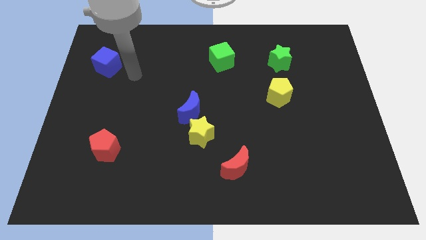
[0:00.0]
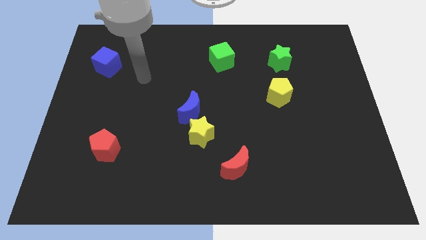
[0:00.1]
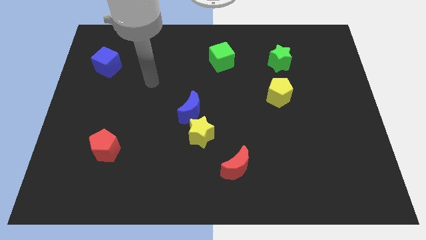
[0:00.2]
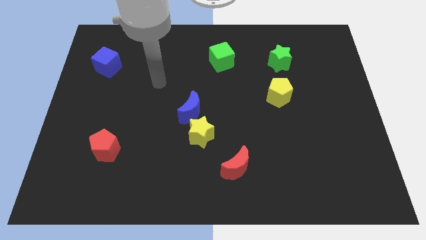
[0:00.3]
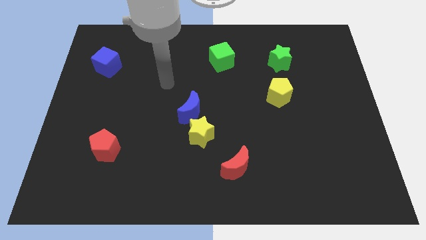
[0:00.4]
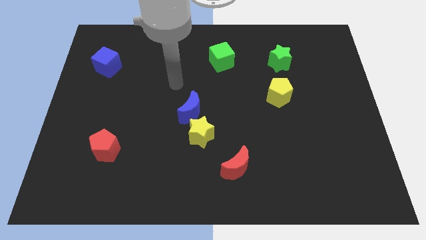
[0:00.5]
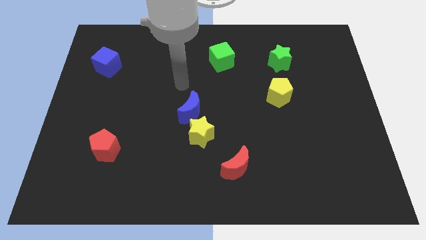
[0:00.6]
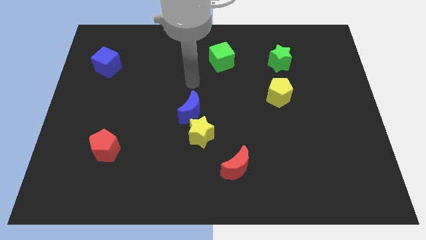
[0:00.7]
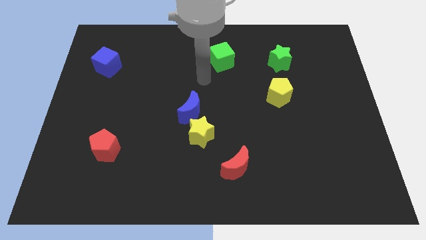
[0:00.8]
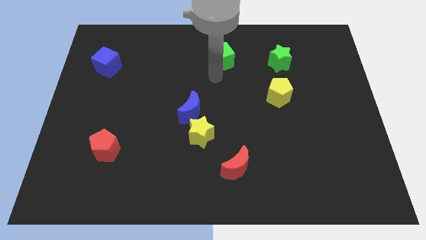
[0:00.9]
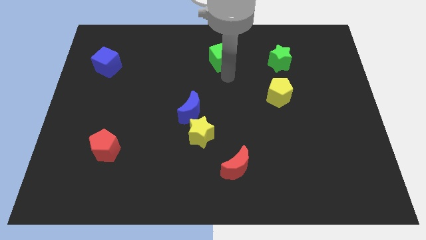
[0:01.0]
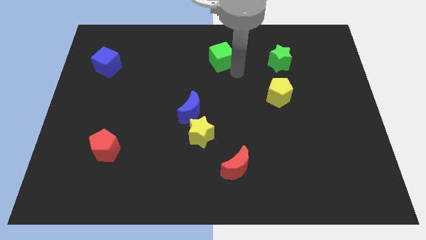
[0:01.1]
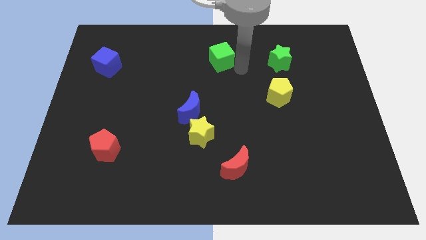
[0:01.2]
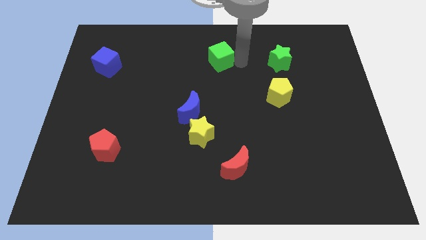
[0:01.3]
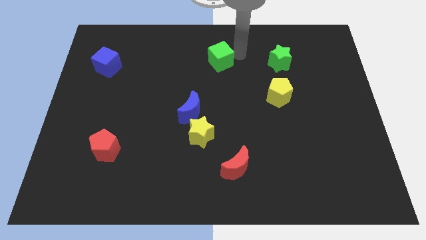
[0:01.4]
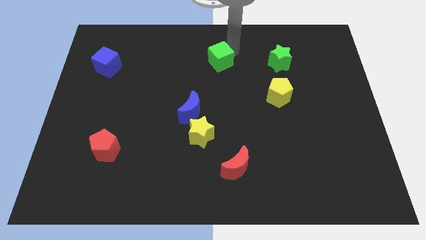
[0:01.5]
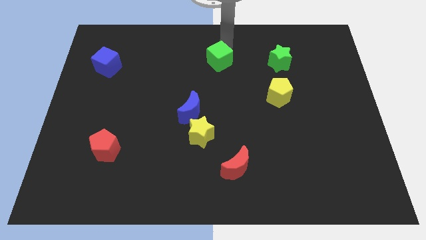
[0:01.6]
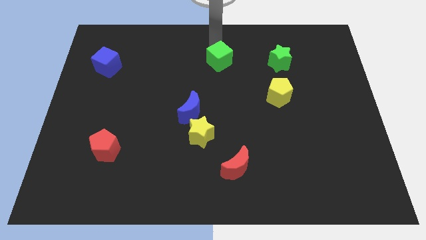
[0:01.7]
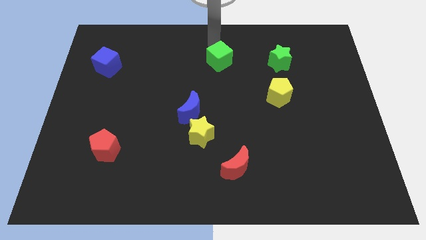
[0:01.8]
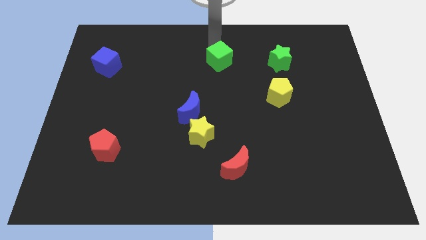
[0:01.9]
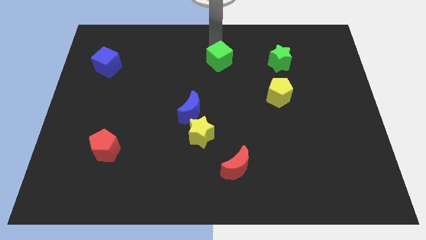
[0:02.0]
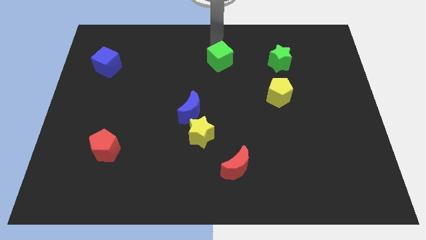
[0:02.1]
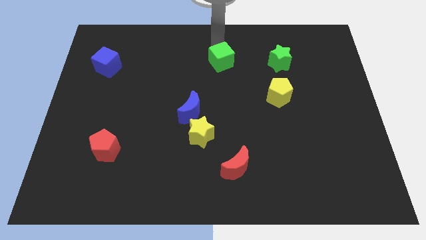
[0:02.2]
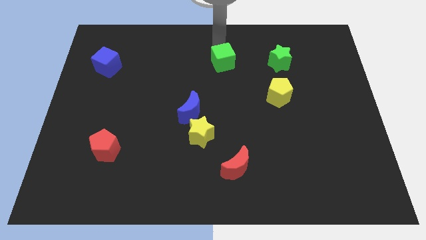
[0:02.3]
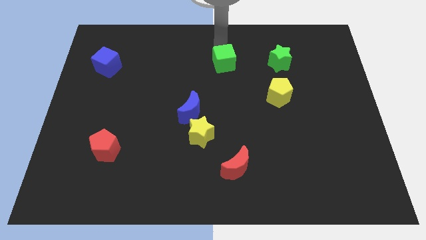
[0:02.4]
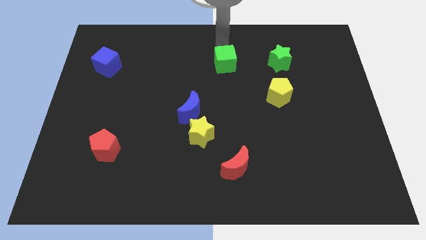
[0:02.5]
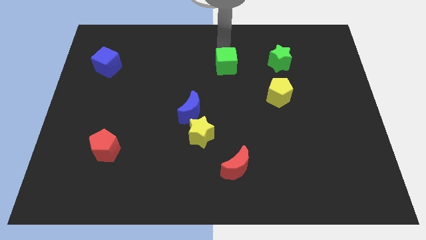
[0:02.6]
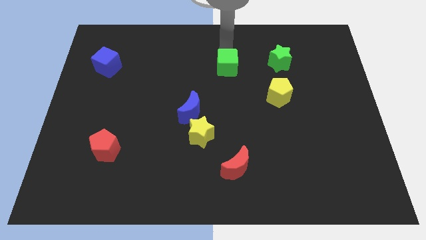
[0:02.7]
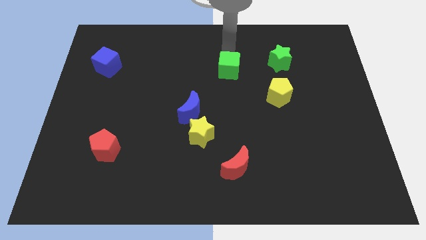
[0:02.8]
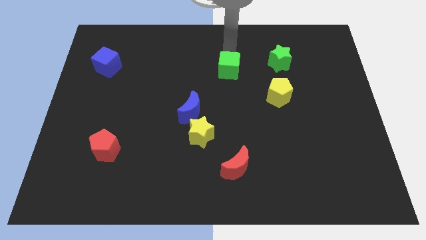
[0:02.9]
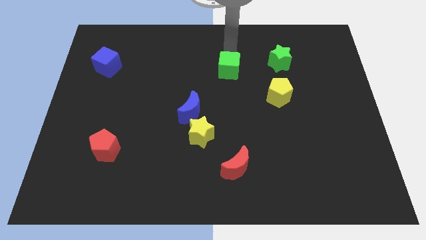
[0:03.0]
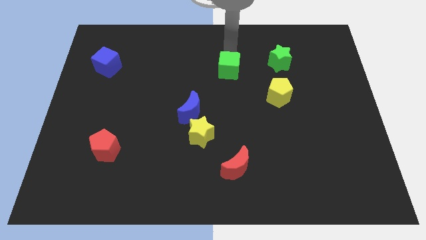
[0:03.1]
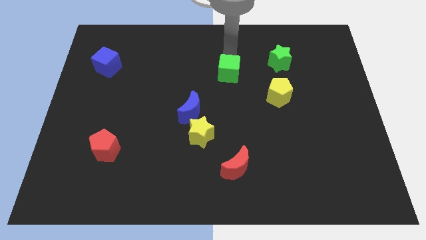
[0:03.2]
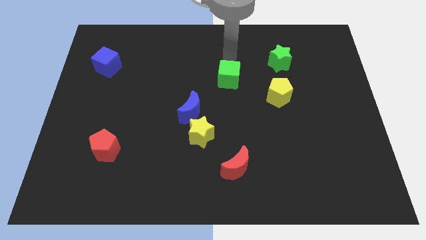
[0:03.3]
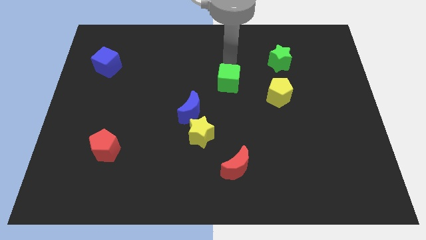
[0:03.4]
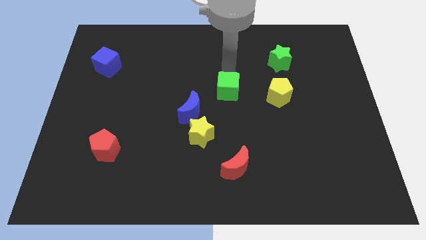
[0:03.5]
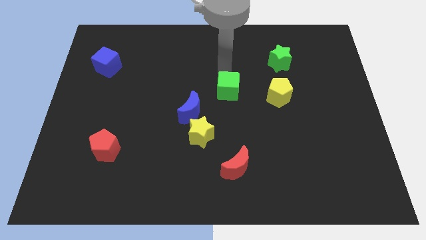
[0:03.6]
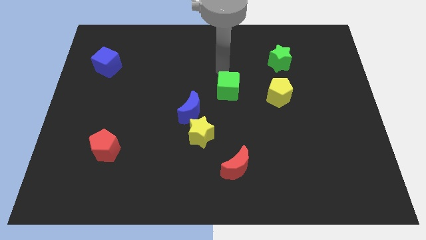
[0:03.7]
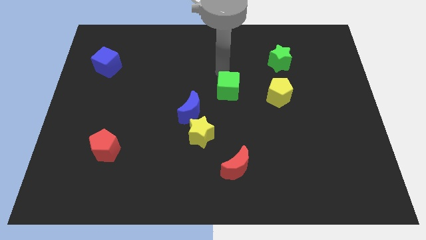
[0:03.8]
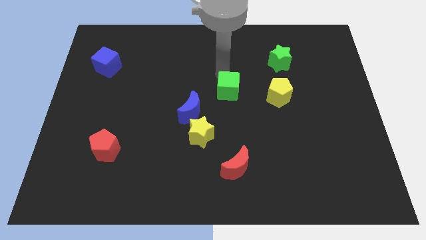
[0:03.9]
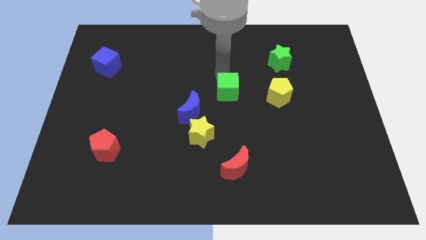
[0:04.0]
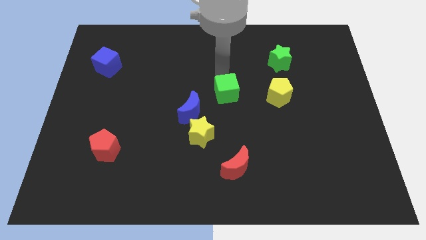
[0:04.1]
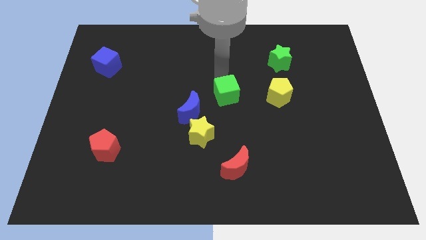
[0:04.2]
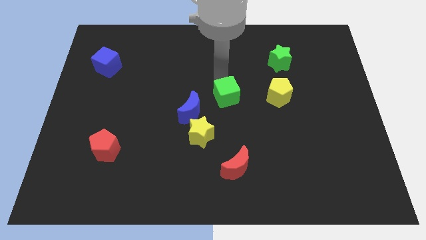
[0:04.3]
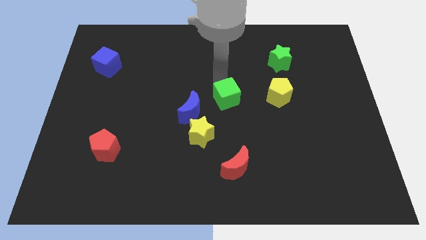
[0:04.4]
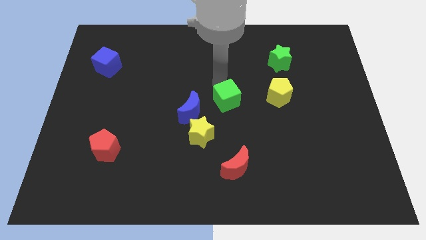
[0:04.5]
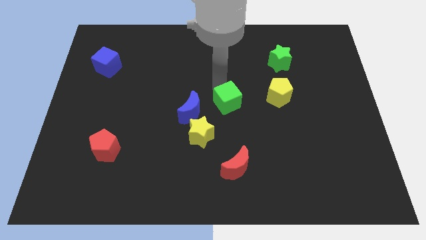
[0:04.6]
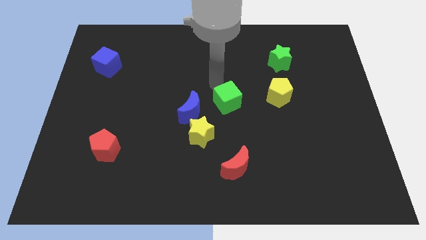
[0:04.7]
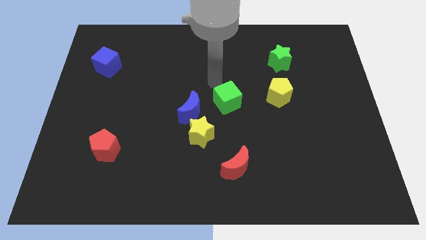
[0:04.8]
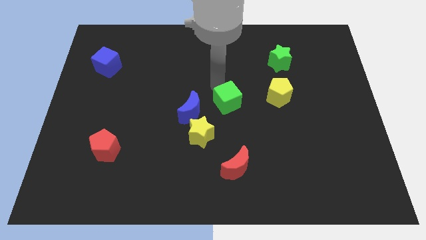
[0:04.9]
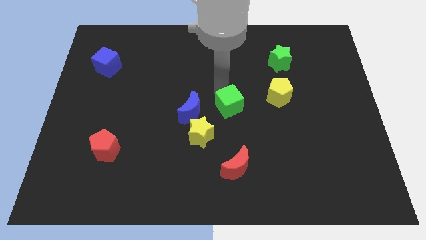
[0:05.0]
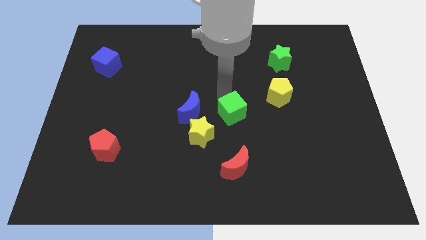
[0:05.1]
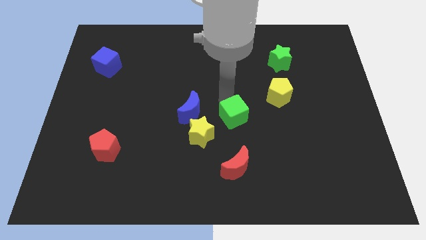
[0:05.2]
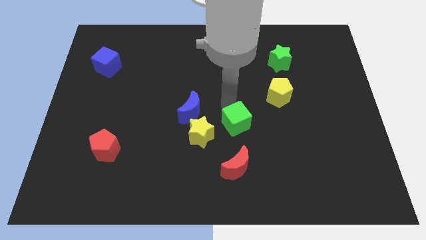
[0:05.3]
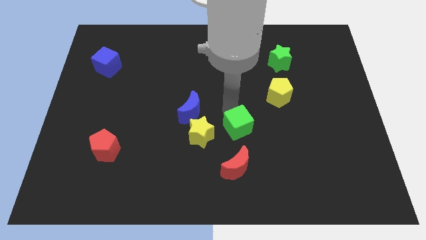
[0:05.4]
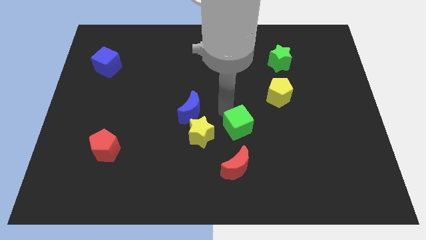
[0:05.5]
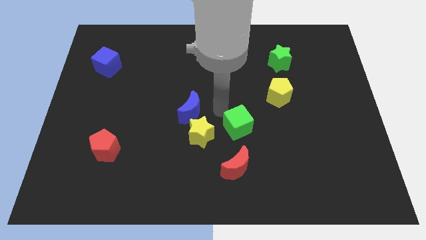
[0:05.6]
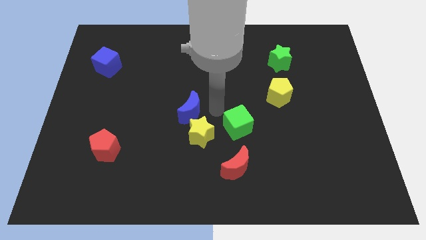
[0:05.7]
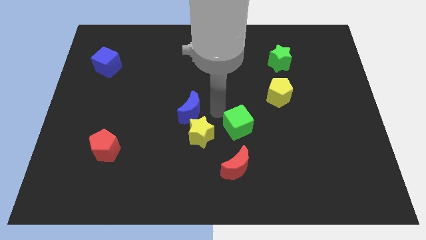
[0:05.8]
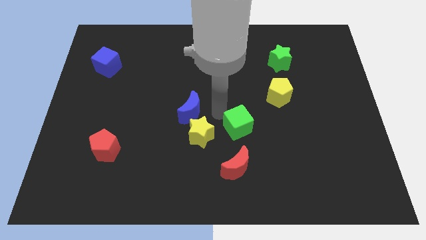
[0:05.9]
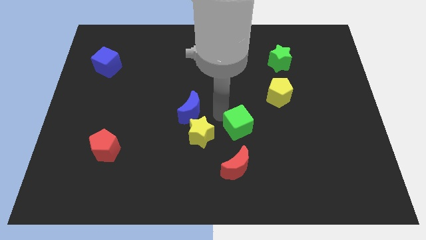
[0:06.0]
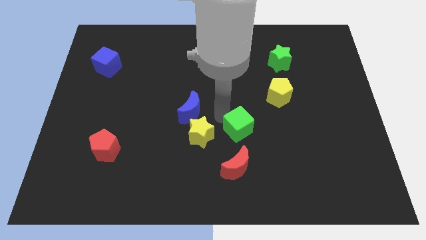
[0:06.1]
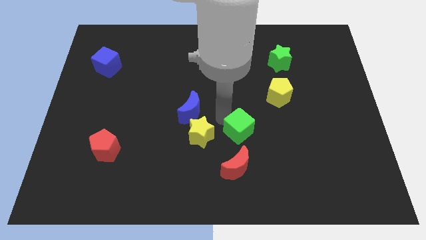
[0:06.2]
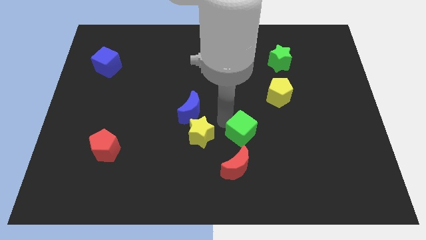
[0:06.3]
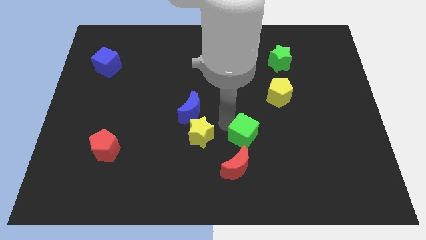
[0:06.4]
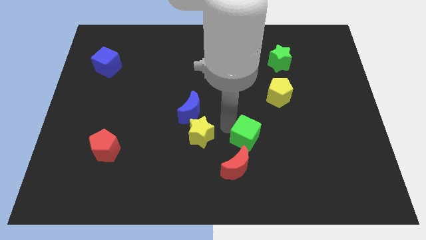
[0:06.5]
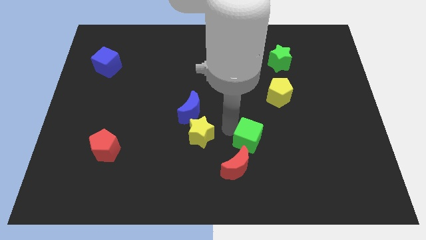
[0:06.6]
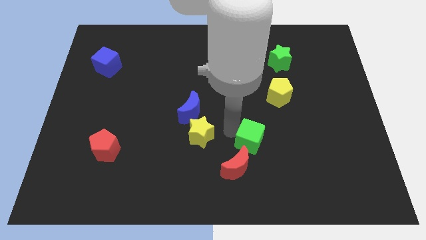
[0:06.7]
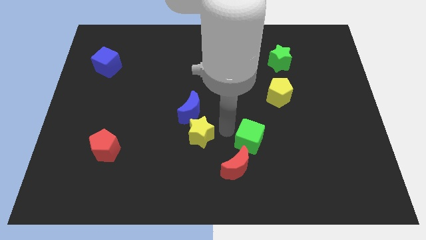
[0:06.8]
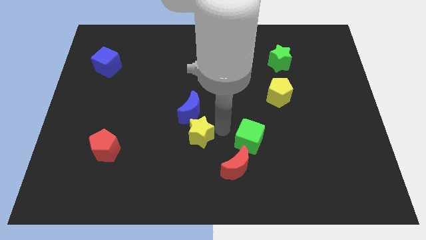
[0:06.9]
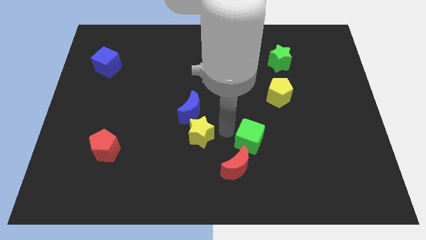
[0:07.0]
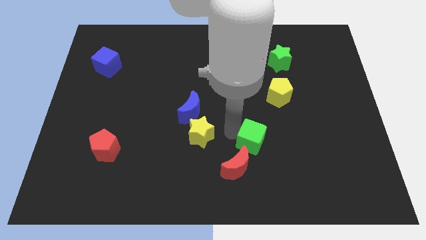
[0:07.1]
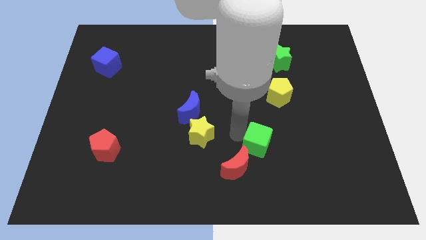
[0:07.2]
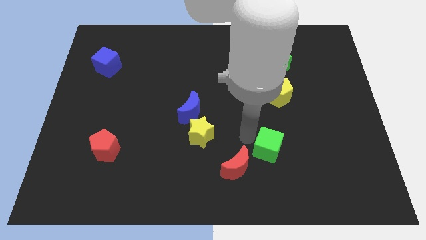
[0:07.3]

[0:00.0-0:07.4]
slide the green cube right of the red moon
